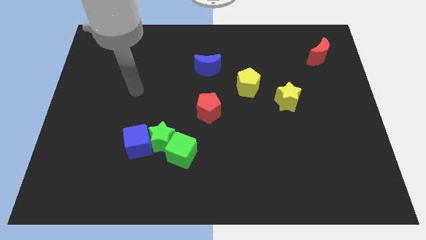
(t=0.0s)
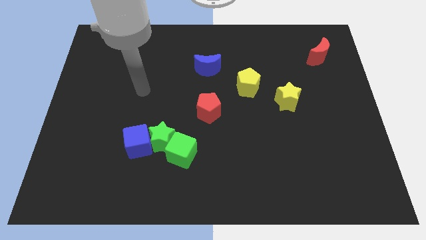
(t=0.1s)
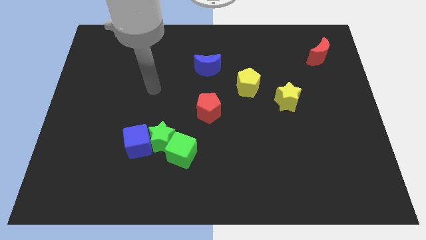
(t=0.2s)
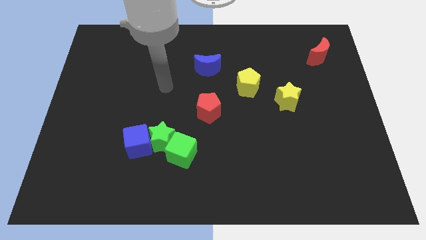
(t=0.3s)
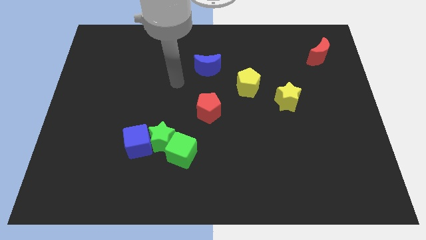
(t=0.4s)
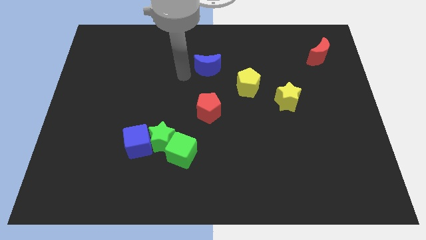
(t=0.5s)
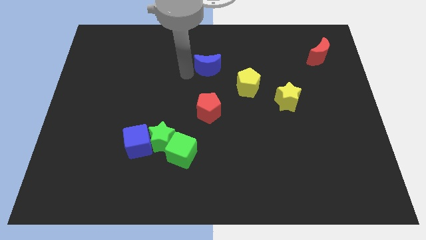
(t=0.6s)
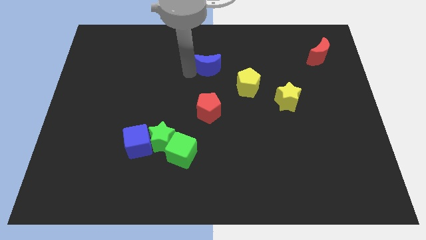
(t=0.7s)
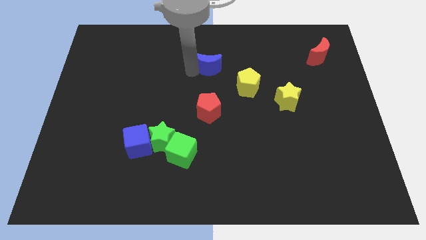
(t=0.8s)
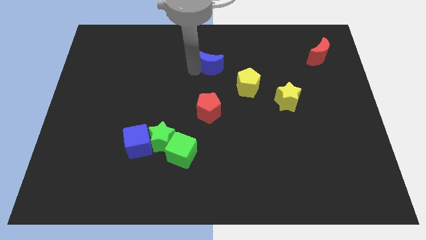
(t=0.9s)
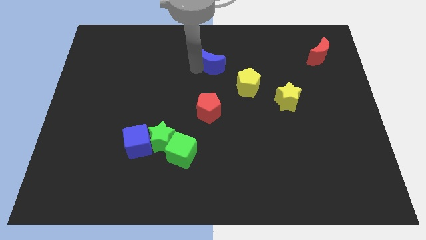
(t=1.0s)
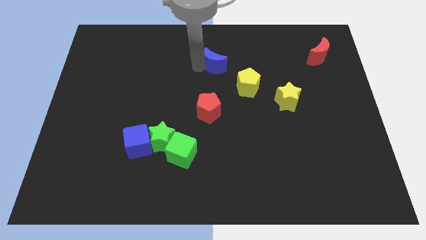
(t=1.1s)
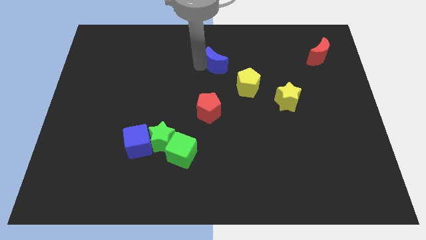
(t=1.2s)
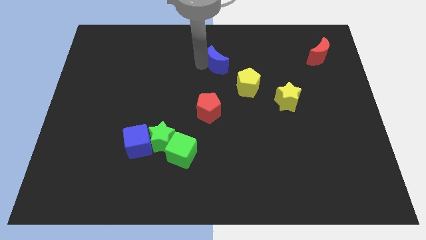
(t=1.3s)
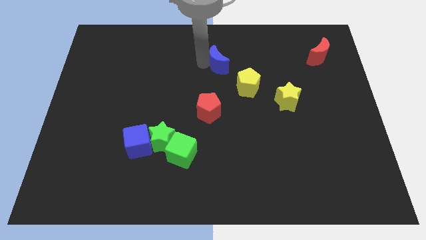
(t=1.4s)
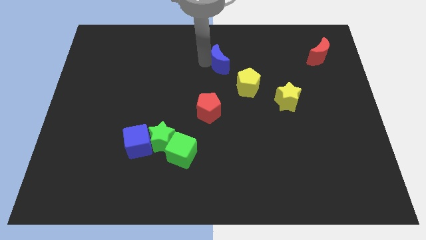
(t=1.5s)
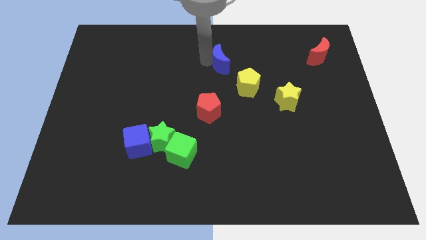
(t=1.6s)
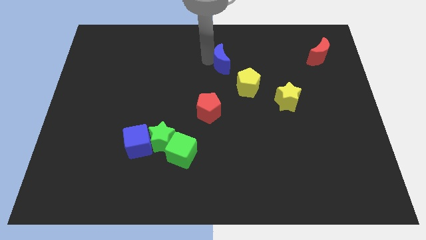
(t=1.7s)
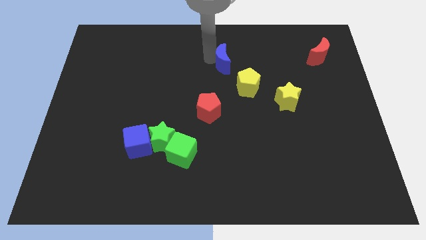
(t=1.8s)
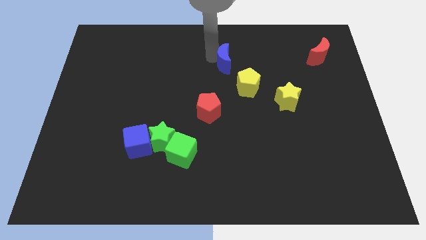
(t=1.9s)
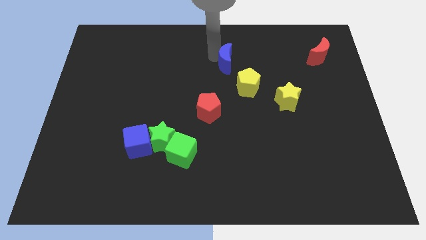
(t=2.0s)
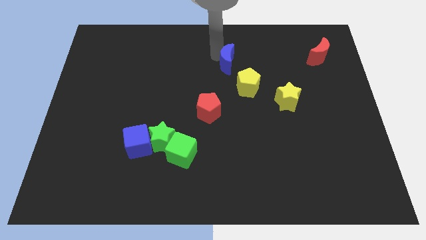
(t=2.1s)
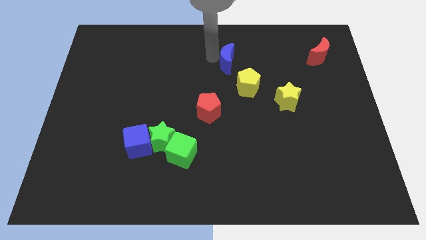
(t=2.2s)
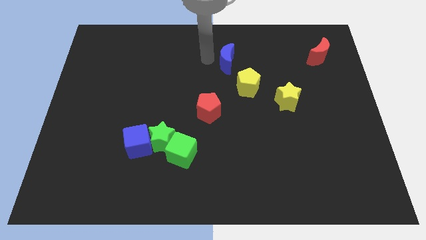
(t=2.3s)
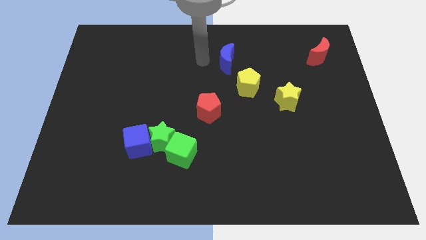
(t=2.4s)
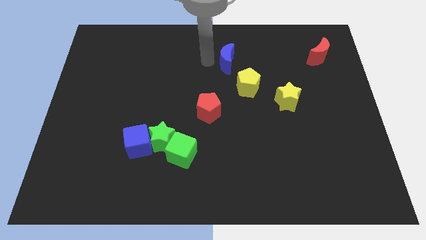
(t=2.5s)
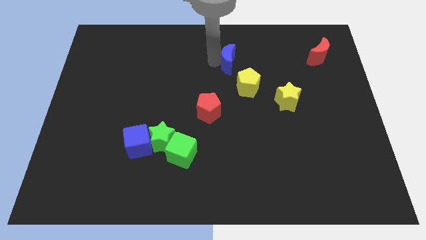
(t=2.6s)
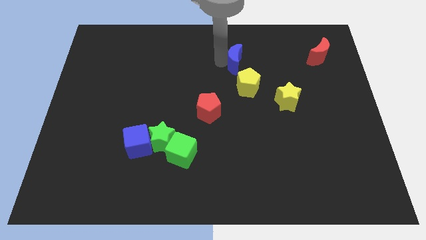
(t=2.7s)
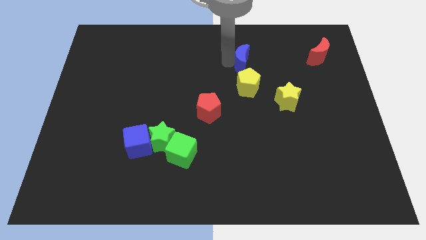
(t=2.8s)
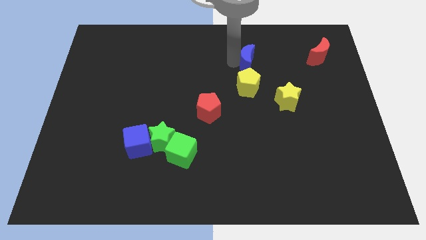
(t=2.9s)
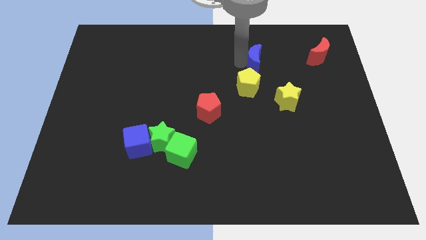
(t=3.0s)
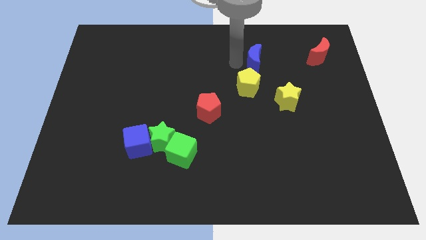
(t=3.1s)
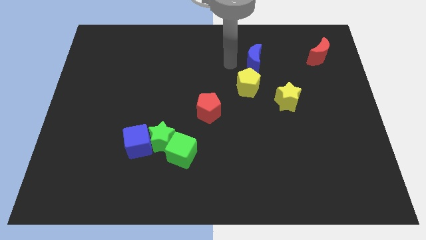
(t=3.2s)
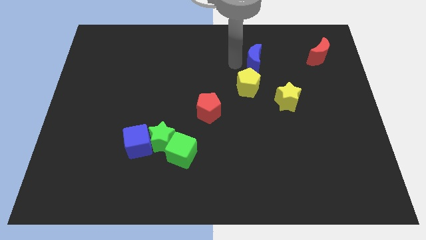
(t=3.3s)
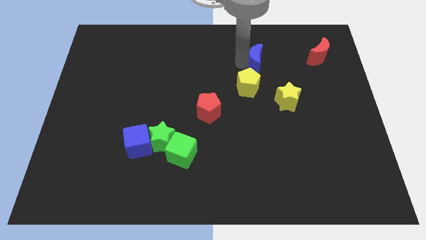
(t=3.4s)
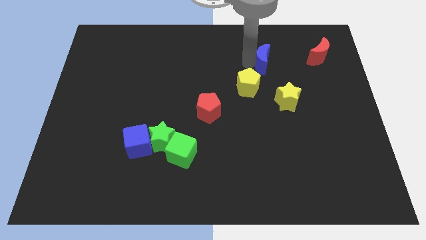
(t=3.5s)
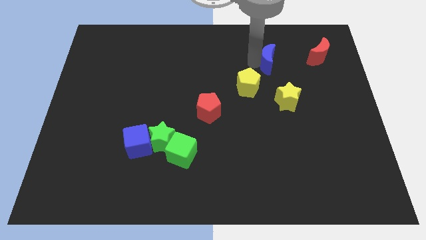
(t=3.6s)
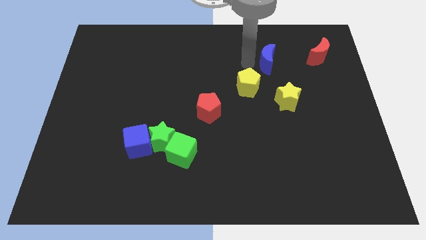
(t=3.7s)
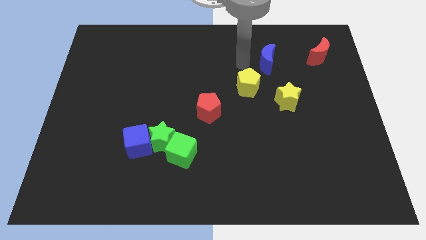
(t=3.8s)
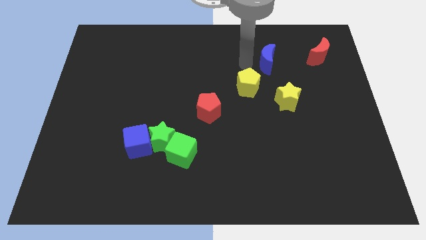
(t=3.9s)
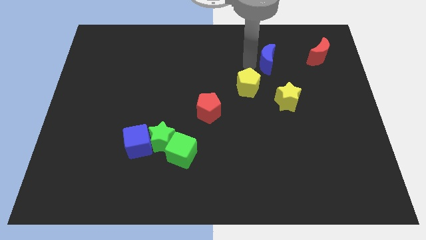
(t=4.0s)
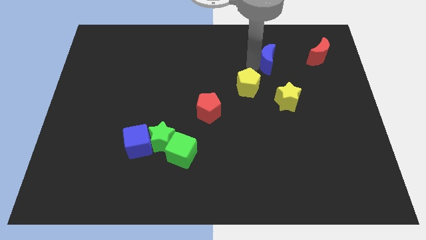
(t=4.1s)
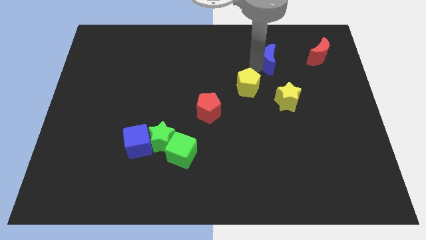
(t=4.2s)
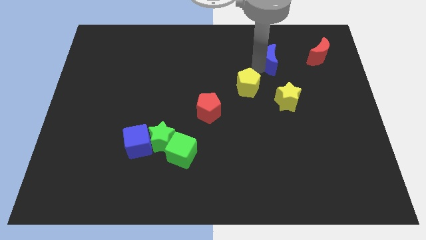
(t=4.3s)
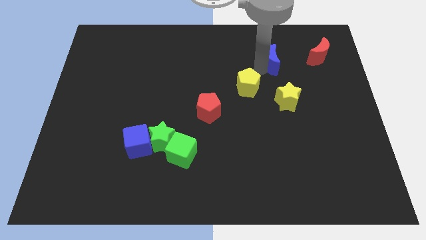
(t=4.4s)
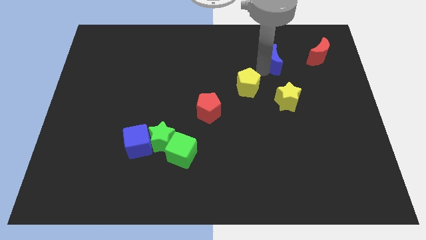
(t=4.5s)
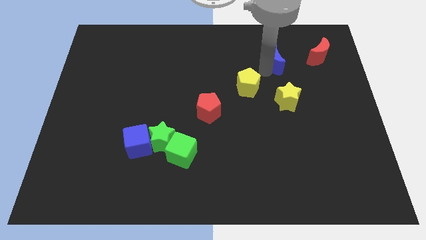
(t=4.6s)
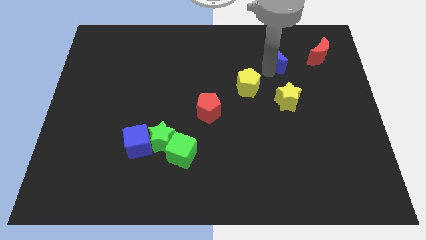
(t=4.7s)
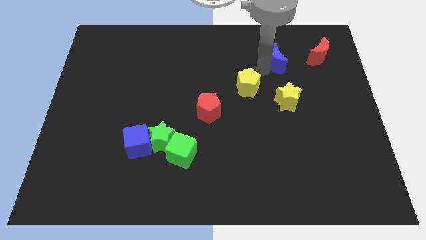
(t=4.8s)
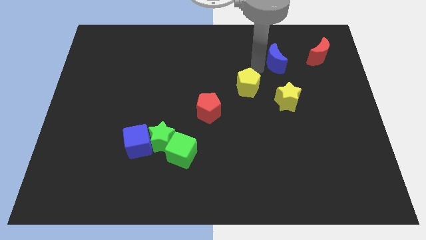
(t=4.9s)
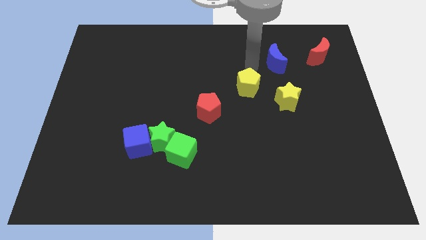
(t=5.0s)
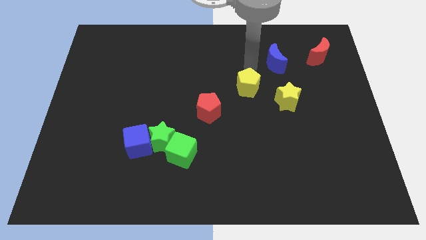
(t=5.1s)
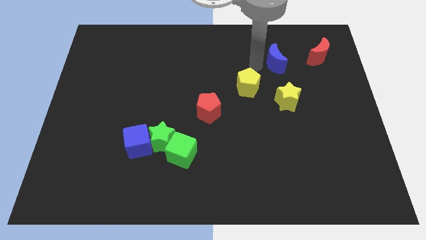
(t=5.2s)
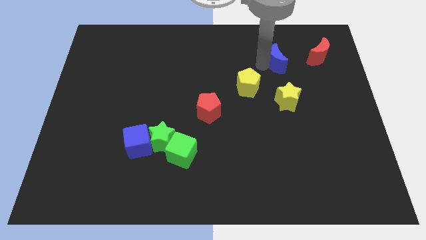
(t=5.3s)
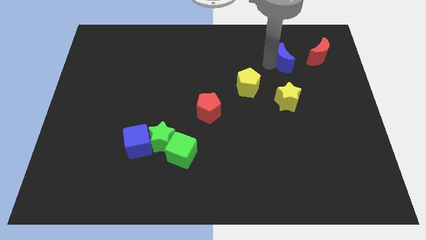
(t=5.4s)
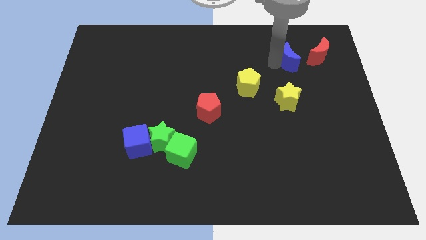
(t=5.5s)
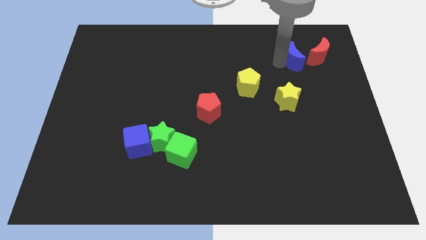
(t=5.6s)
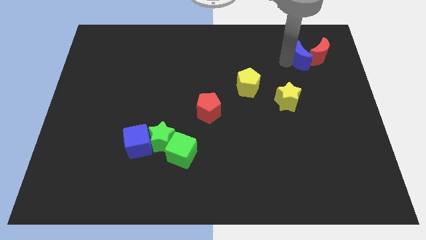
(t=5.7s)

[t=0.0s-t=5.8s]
put the blue moon to the red moon
